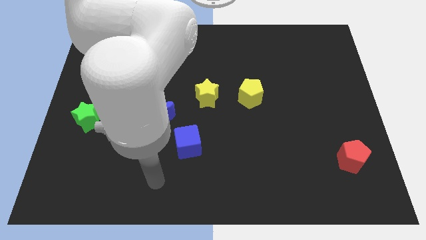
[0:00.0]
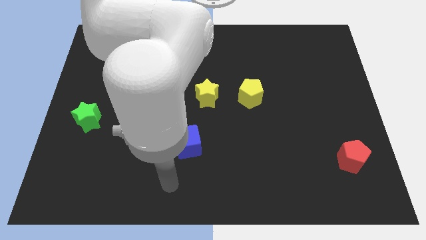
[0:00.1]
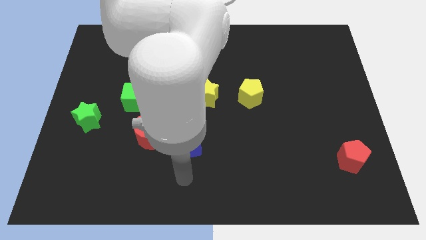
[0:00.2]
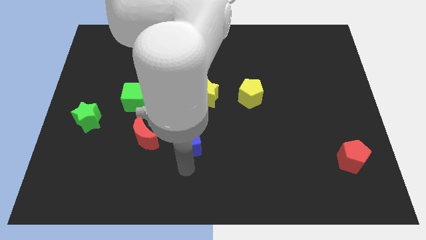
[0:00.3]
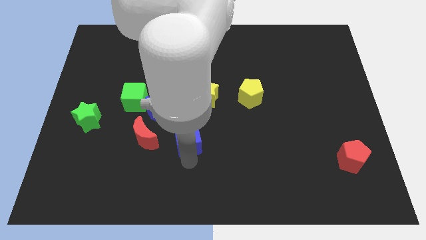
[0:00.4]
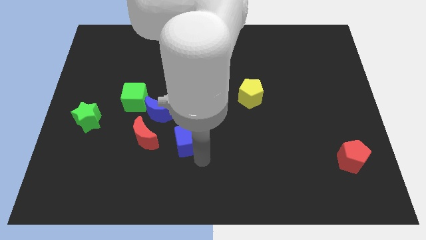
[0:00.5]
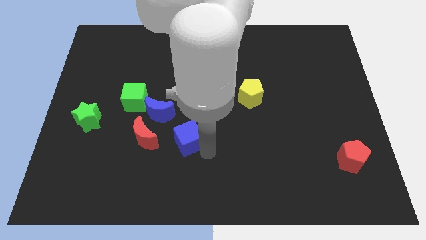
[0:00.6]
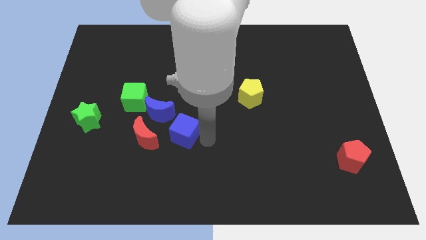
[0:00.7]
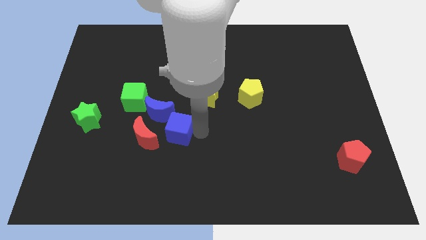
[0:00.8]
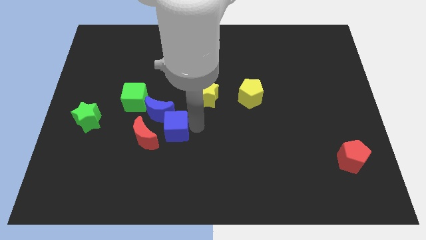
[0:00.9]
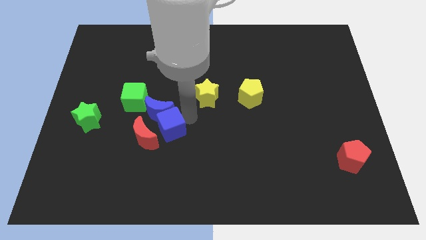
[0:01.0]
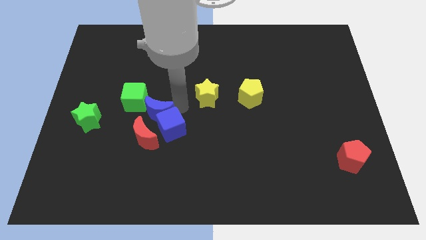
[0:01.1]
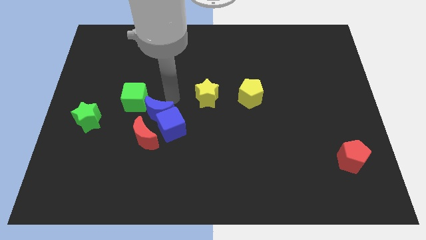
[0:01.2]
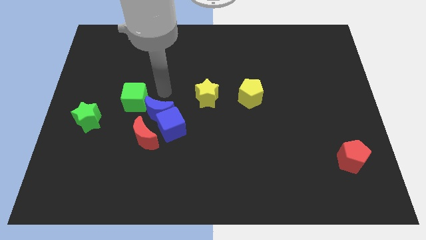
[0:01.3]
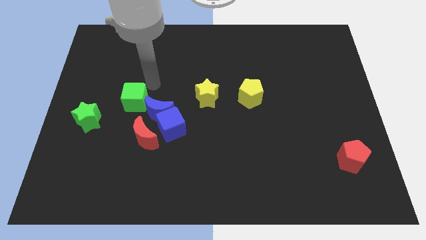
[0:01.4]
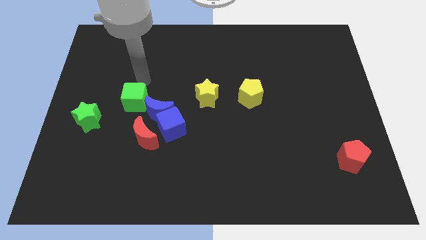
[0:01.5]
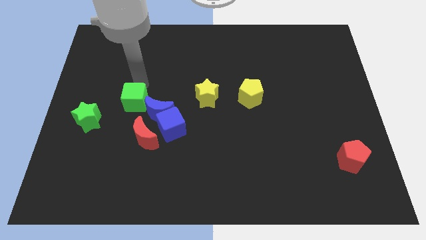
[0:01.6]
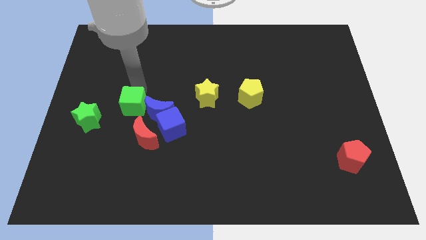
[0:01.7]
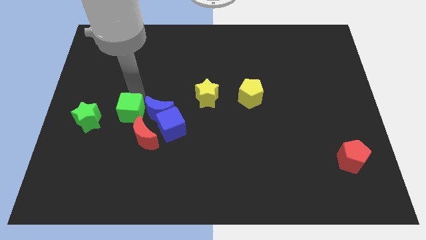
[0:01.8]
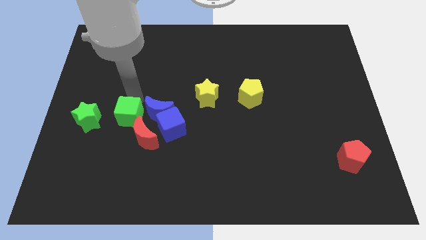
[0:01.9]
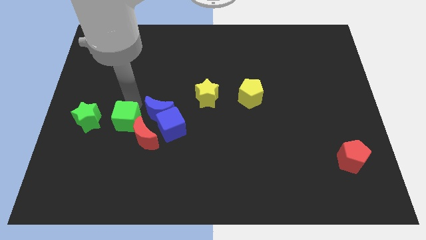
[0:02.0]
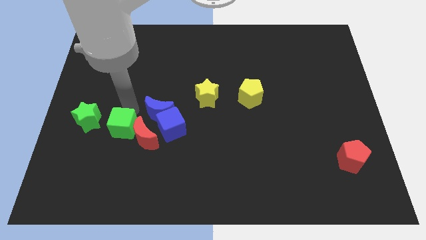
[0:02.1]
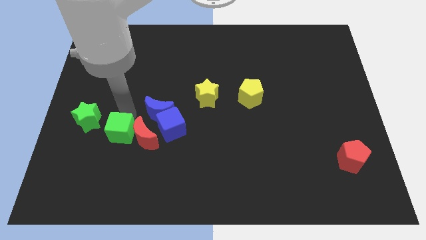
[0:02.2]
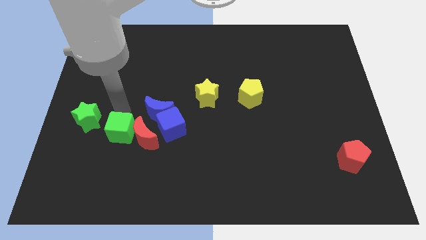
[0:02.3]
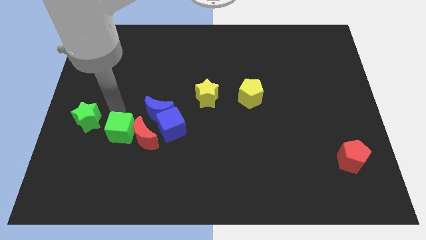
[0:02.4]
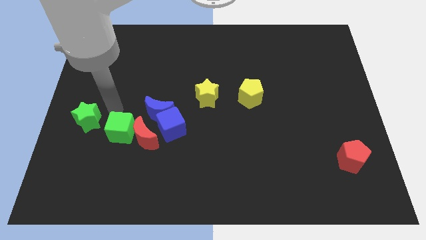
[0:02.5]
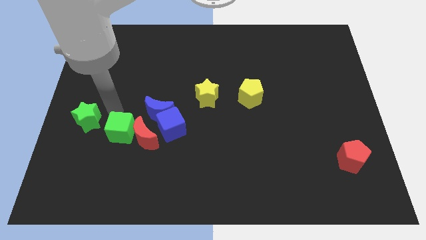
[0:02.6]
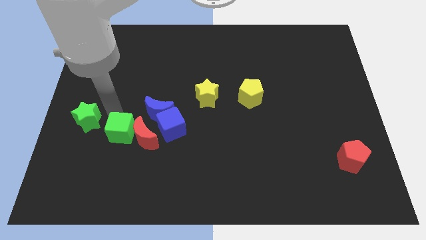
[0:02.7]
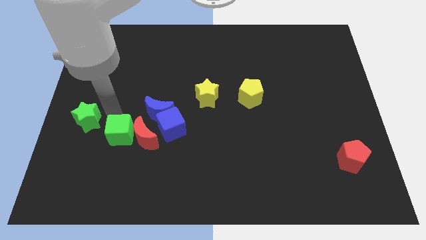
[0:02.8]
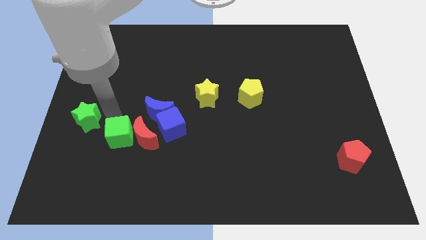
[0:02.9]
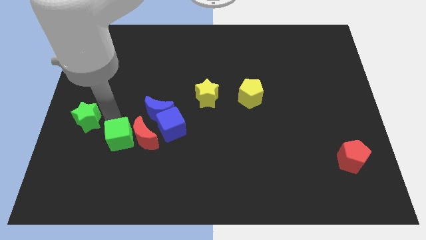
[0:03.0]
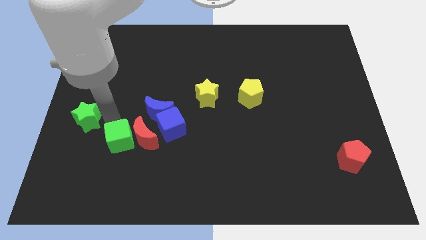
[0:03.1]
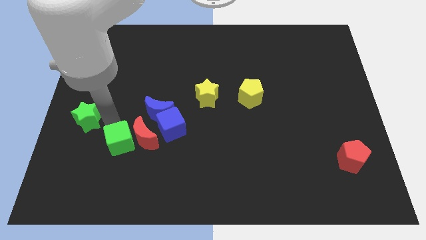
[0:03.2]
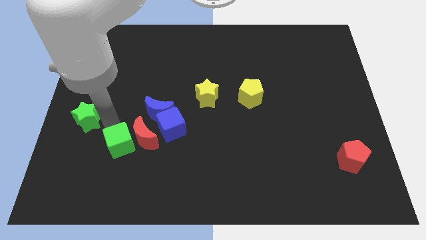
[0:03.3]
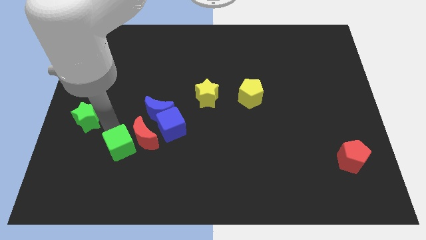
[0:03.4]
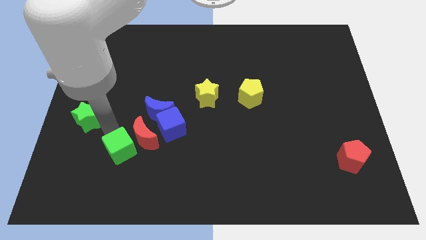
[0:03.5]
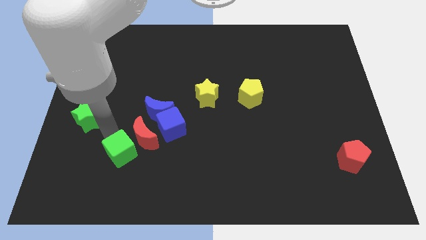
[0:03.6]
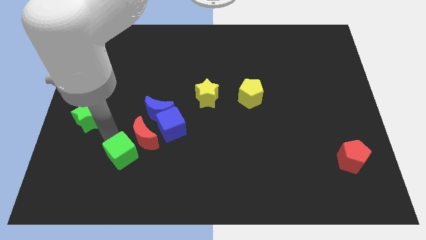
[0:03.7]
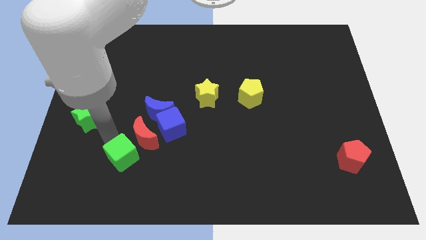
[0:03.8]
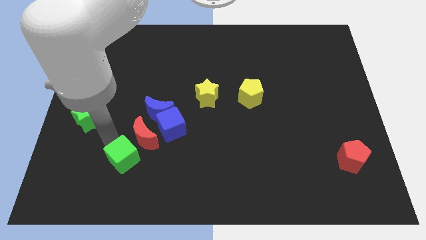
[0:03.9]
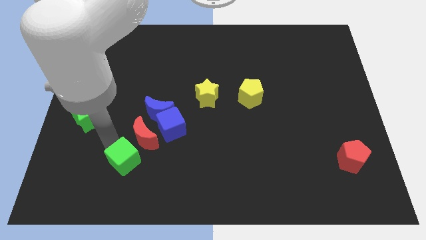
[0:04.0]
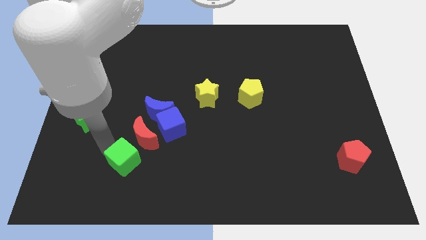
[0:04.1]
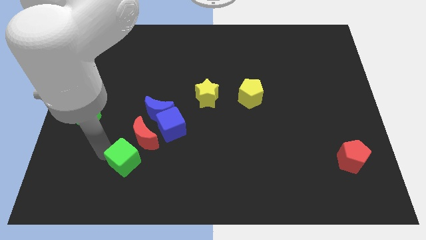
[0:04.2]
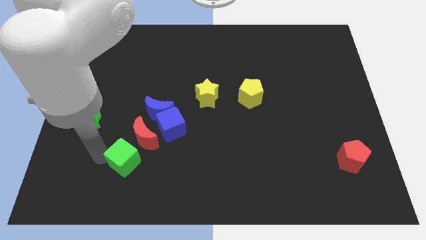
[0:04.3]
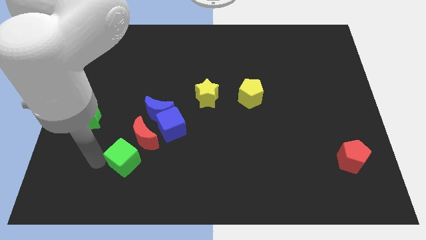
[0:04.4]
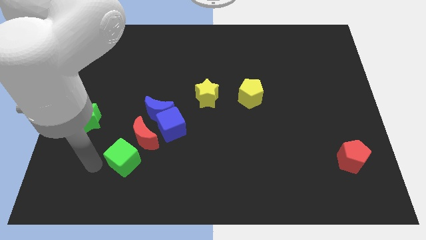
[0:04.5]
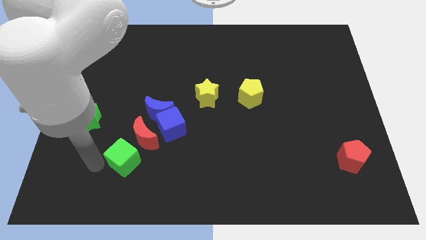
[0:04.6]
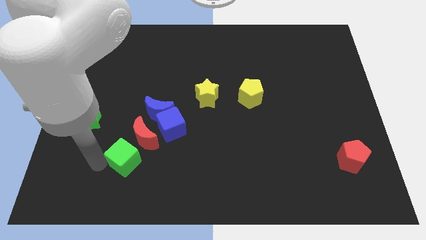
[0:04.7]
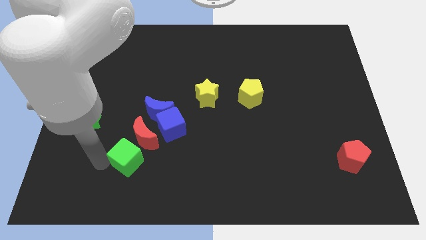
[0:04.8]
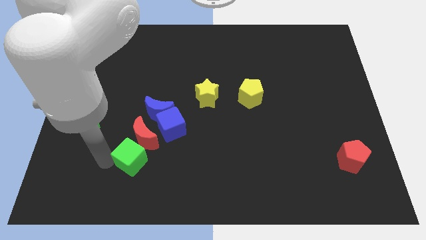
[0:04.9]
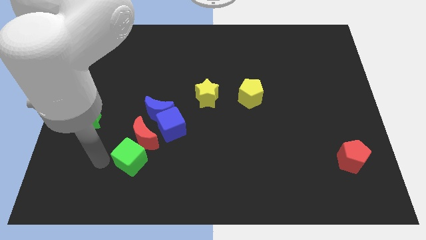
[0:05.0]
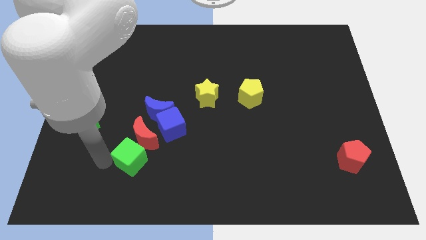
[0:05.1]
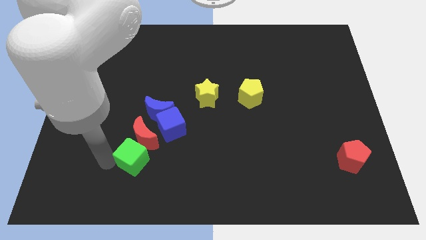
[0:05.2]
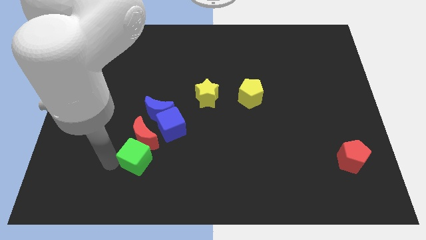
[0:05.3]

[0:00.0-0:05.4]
put the green cube to the bottom right of the red moon

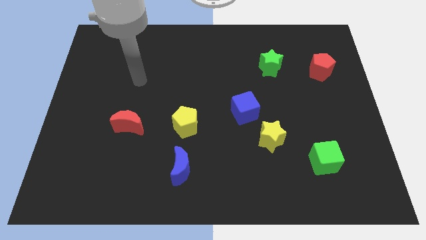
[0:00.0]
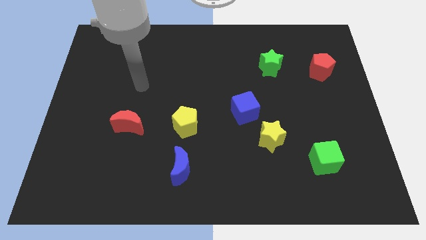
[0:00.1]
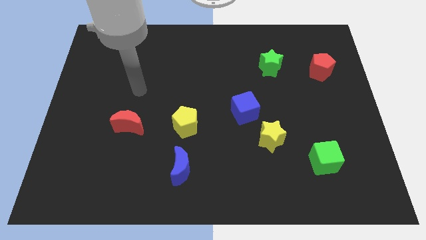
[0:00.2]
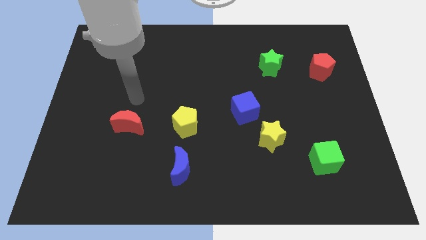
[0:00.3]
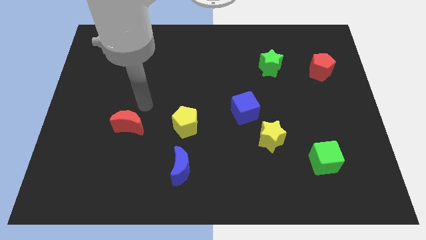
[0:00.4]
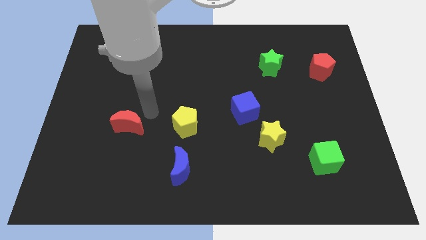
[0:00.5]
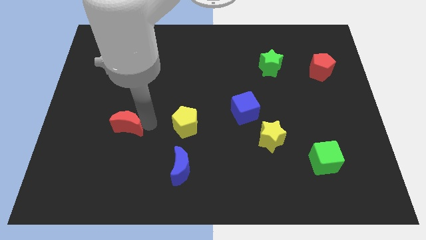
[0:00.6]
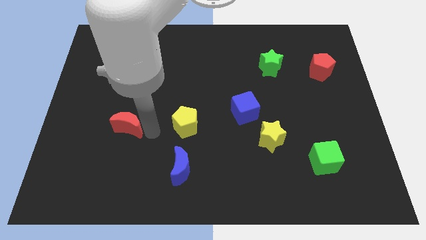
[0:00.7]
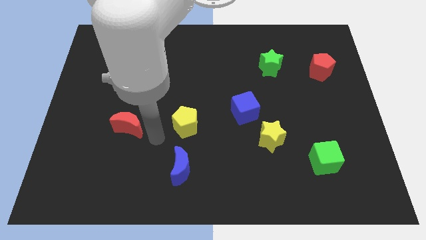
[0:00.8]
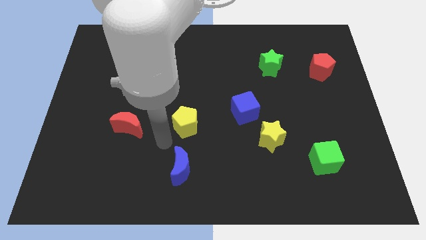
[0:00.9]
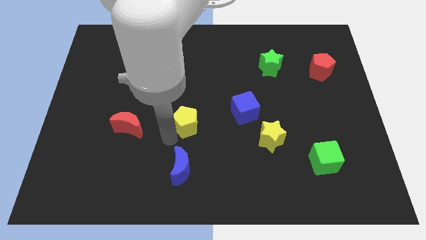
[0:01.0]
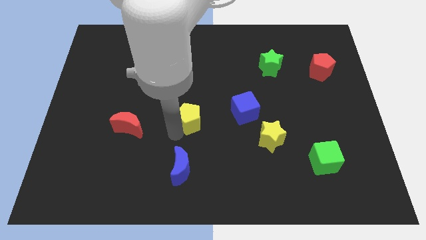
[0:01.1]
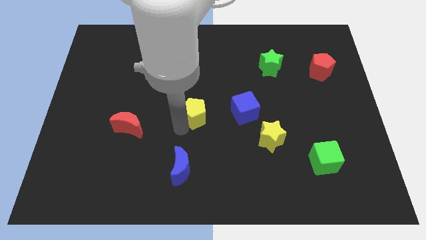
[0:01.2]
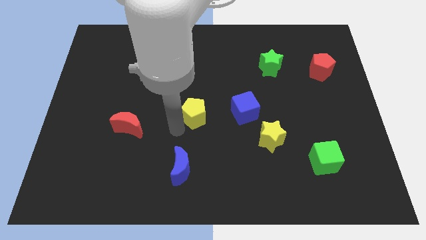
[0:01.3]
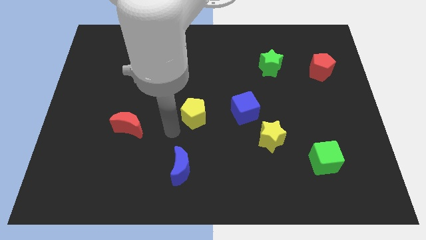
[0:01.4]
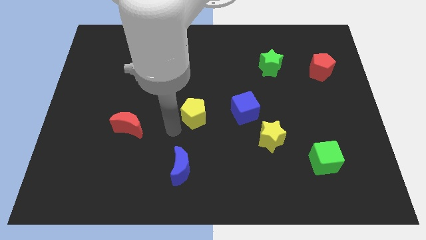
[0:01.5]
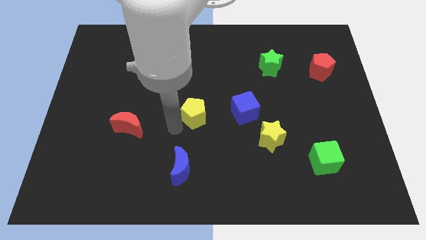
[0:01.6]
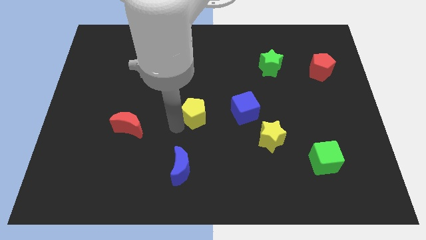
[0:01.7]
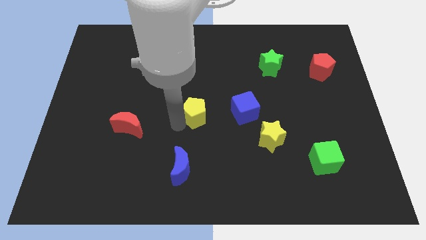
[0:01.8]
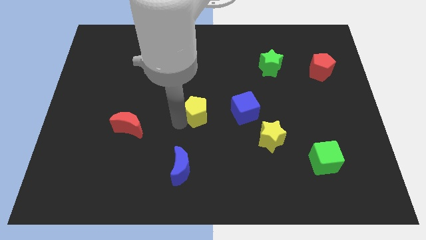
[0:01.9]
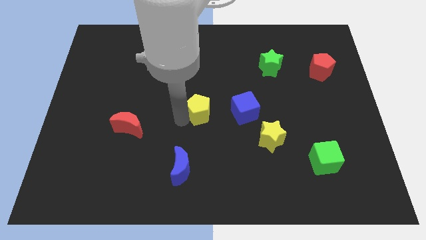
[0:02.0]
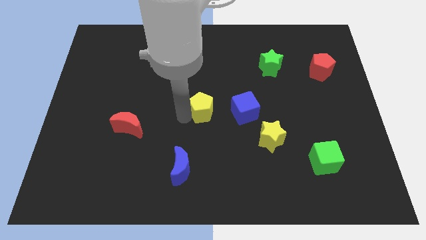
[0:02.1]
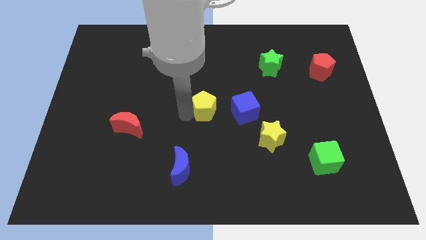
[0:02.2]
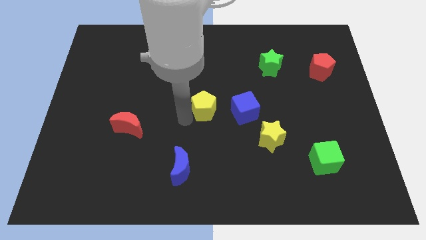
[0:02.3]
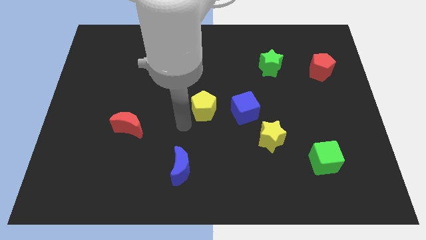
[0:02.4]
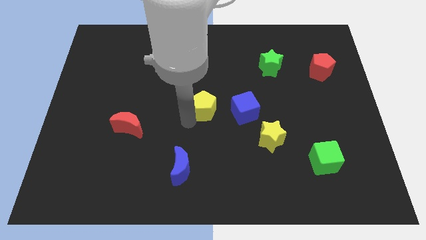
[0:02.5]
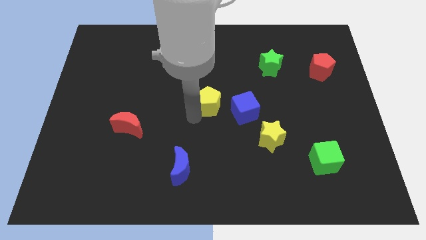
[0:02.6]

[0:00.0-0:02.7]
move the yellow pentagon to the top left side of the blue cube
